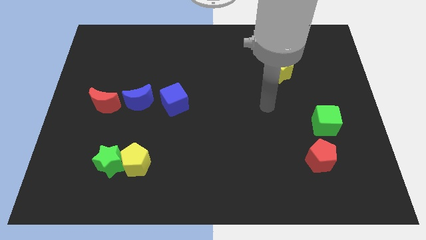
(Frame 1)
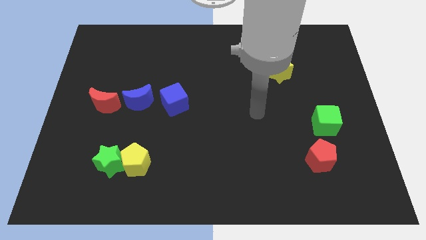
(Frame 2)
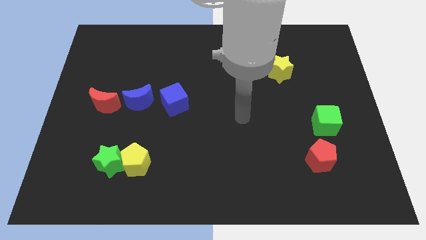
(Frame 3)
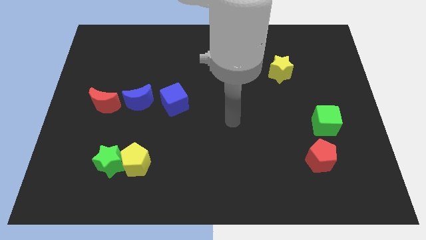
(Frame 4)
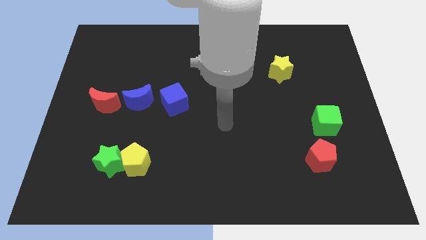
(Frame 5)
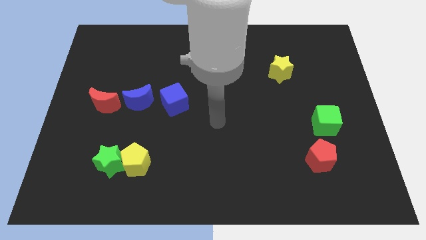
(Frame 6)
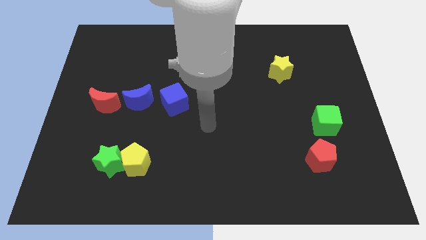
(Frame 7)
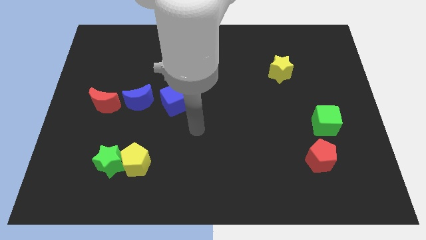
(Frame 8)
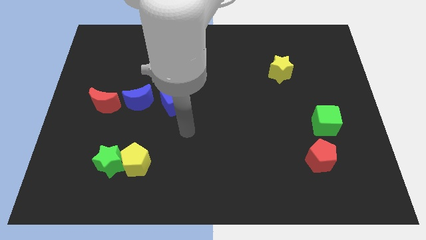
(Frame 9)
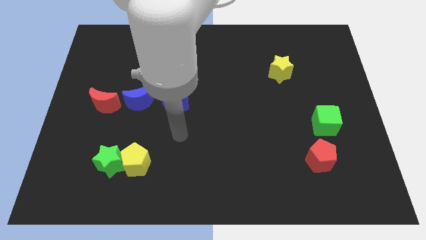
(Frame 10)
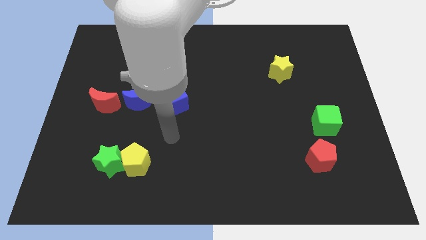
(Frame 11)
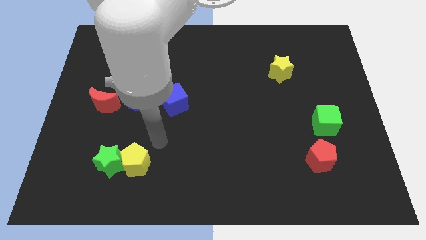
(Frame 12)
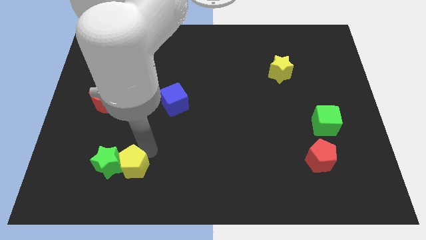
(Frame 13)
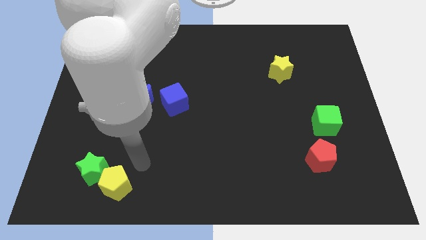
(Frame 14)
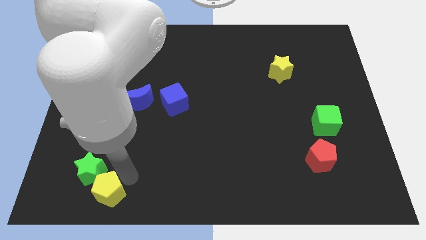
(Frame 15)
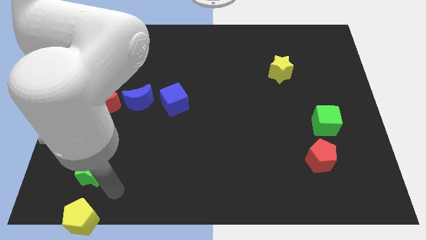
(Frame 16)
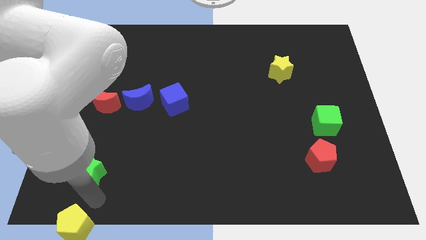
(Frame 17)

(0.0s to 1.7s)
move the green star away from the yellow pentagon

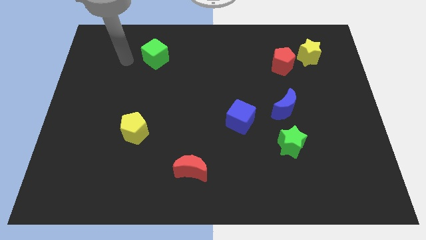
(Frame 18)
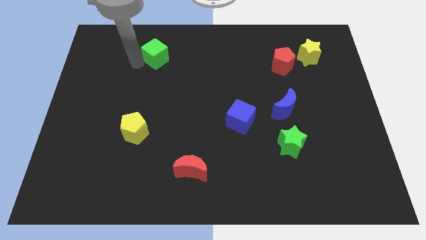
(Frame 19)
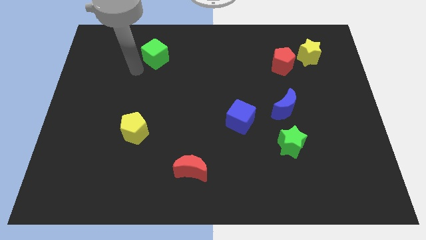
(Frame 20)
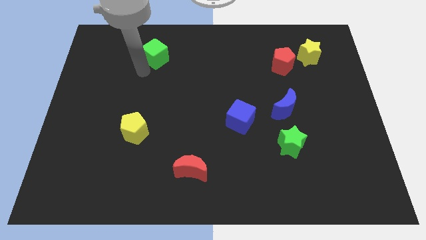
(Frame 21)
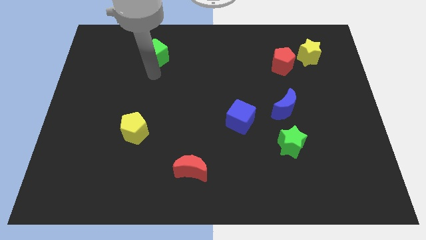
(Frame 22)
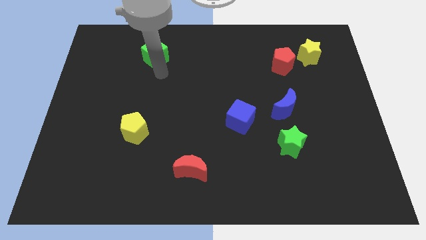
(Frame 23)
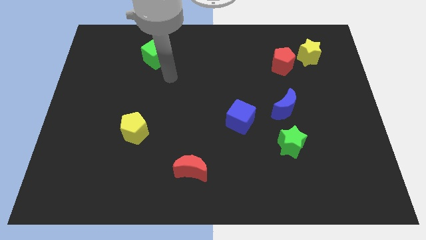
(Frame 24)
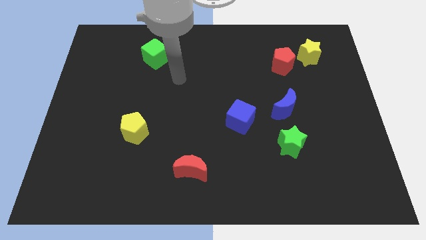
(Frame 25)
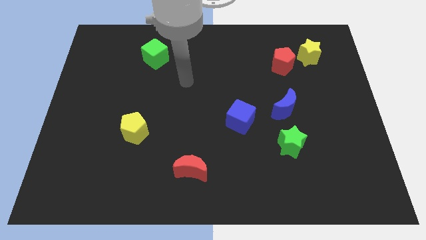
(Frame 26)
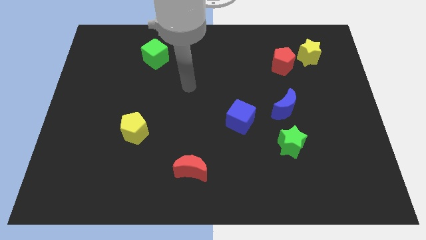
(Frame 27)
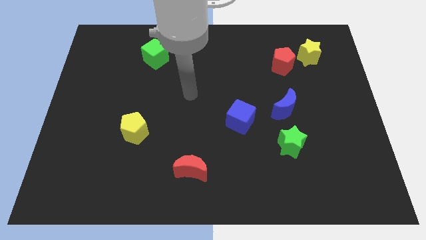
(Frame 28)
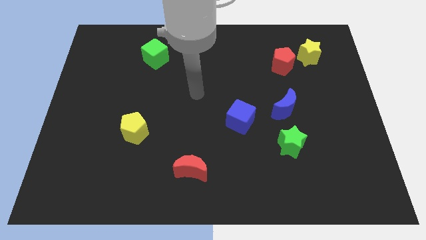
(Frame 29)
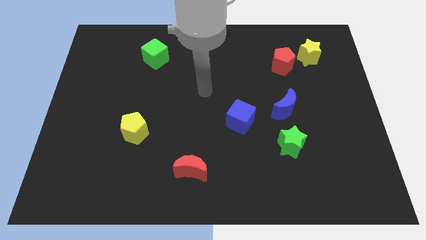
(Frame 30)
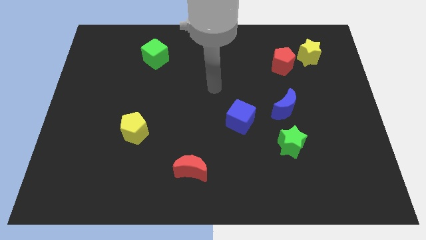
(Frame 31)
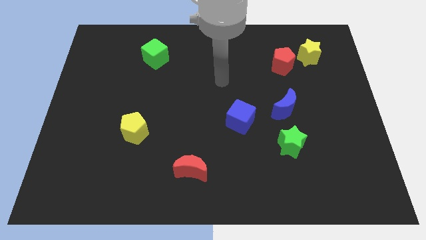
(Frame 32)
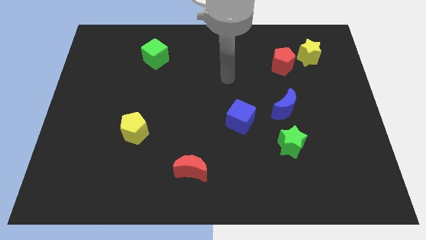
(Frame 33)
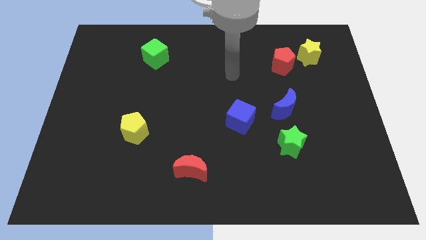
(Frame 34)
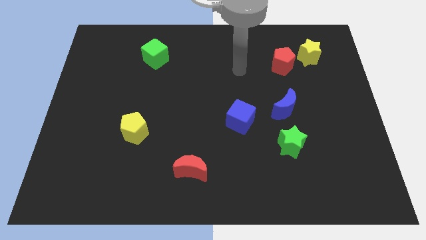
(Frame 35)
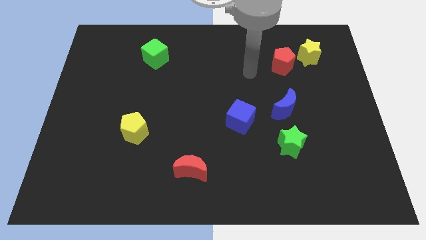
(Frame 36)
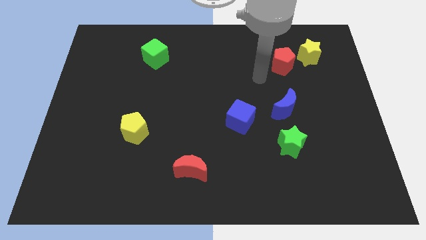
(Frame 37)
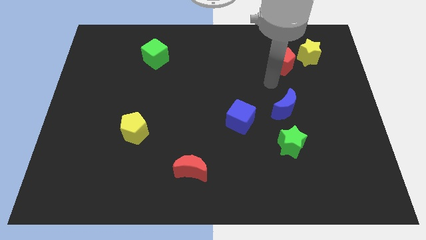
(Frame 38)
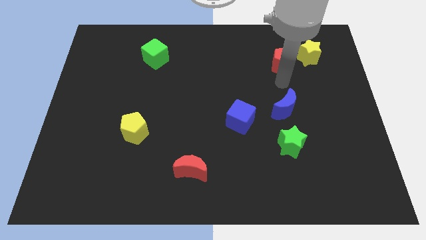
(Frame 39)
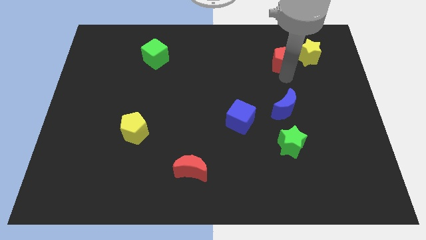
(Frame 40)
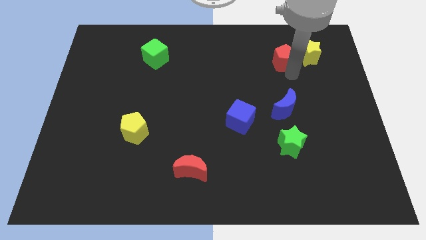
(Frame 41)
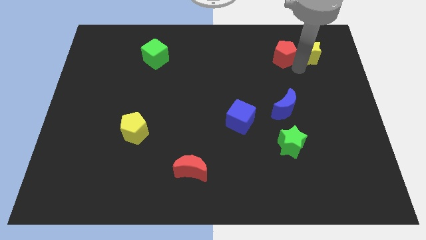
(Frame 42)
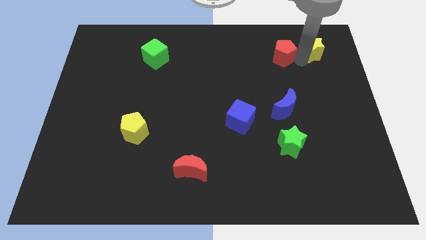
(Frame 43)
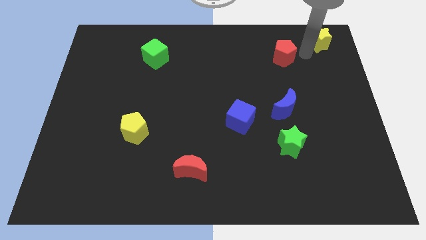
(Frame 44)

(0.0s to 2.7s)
separate the red pentagon from the yellow star

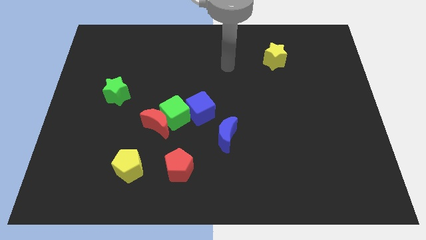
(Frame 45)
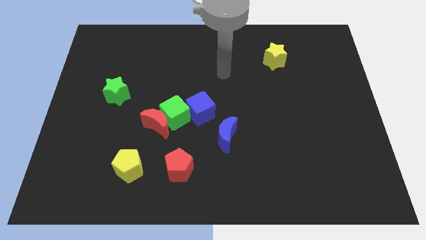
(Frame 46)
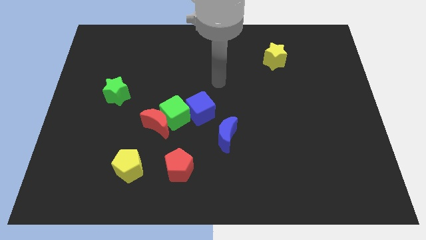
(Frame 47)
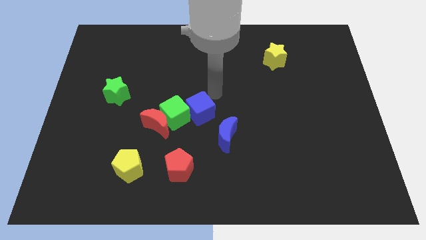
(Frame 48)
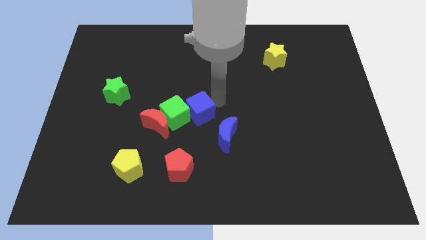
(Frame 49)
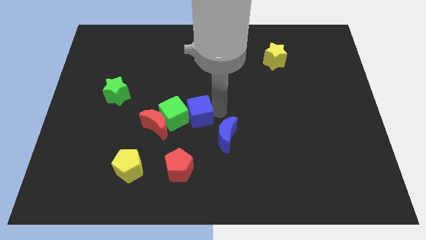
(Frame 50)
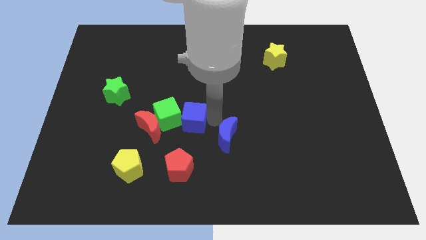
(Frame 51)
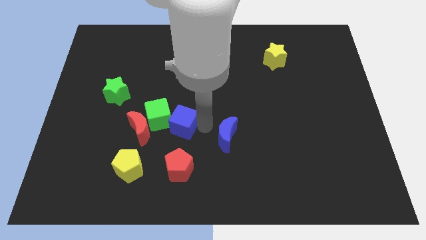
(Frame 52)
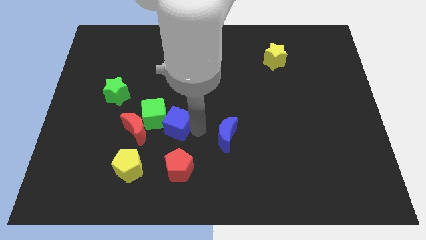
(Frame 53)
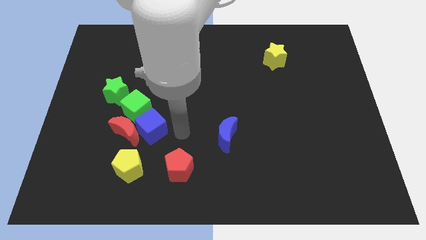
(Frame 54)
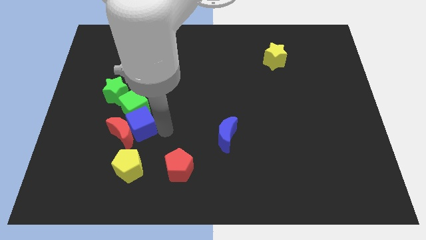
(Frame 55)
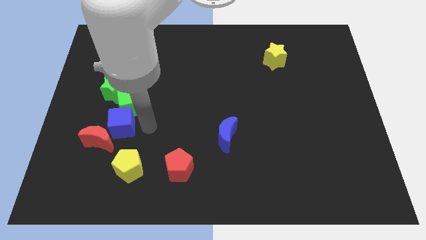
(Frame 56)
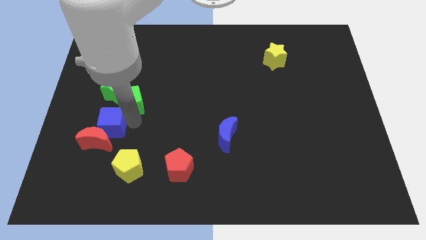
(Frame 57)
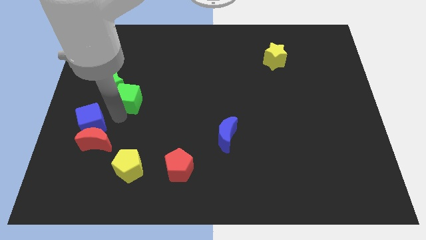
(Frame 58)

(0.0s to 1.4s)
move the green cube away from the red moon and blue cube

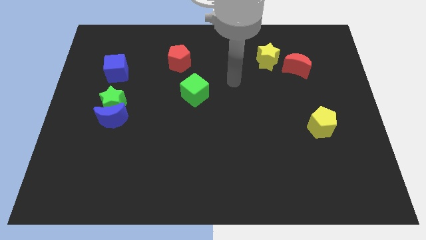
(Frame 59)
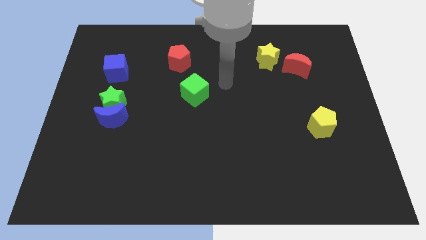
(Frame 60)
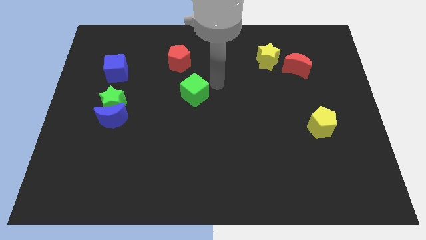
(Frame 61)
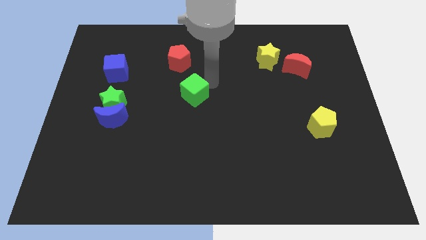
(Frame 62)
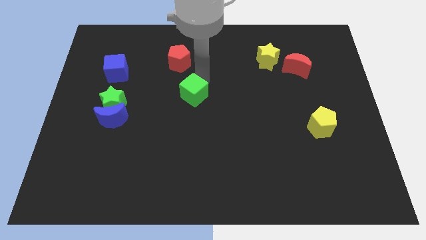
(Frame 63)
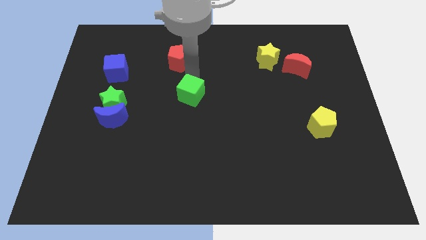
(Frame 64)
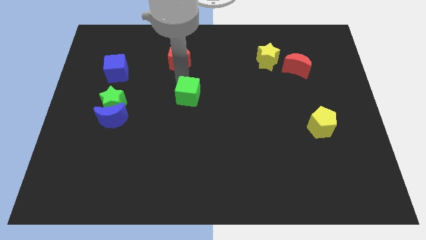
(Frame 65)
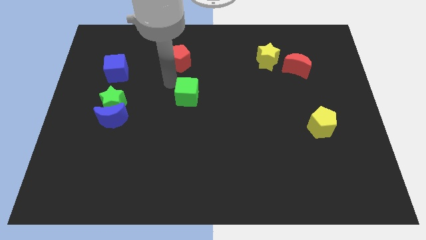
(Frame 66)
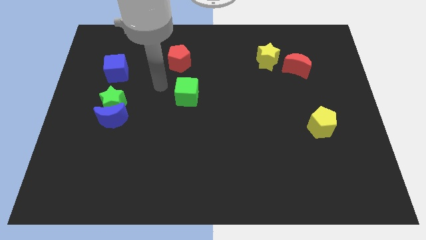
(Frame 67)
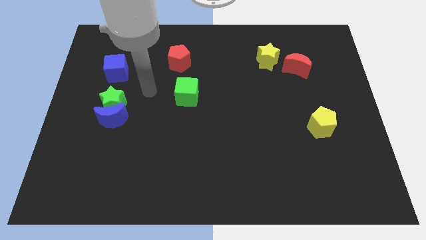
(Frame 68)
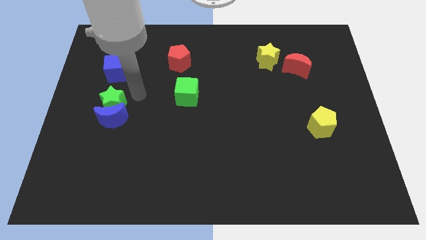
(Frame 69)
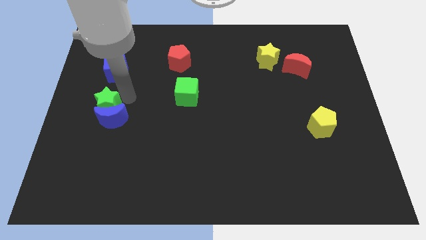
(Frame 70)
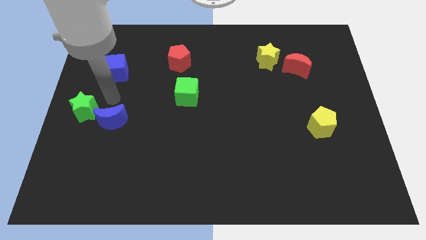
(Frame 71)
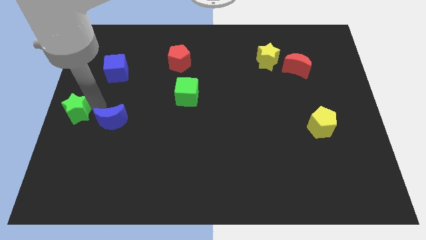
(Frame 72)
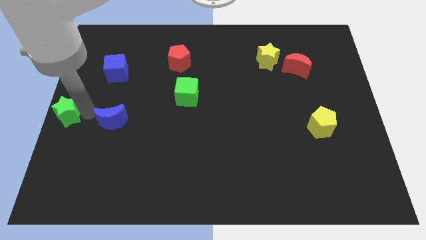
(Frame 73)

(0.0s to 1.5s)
move the blue moon away from the green star

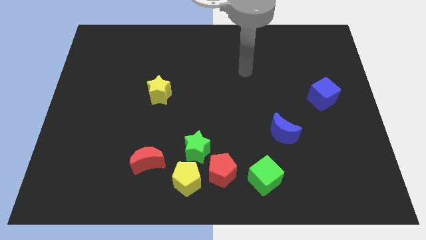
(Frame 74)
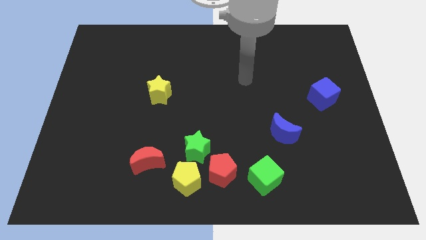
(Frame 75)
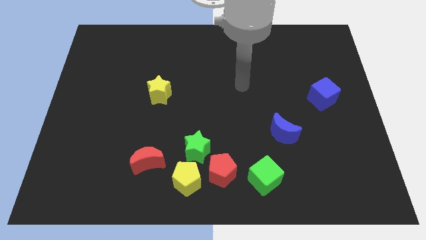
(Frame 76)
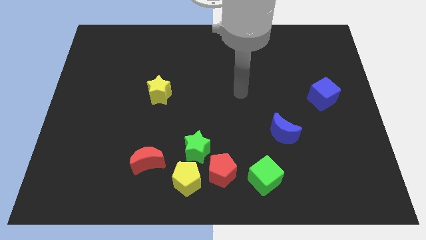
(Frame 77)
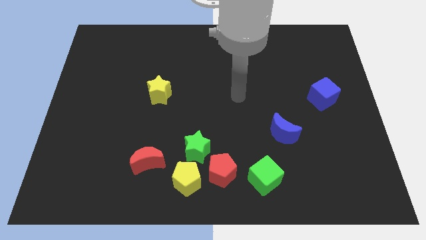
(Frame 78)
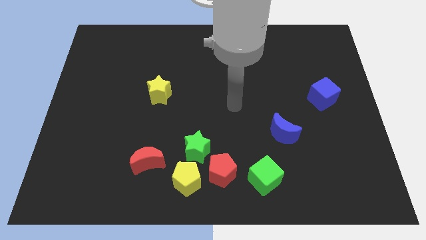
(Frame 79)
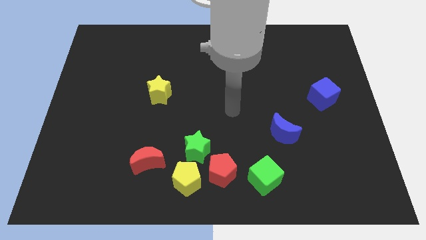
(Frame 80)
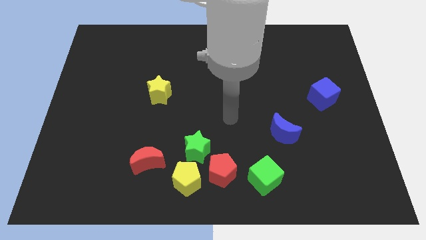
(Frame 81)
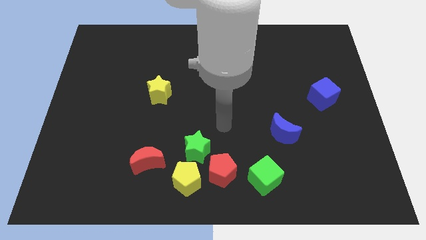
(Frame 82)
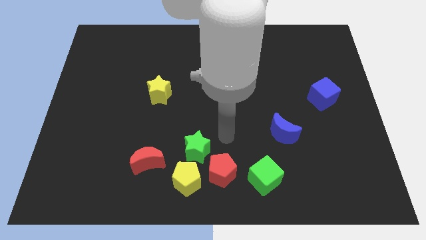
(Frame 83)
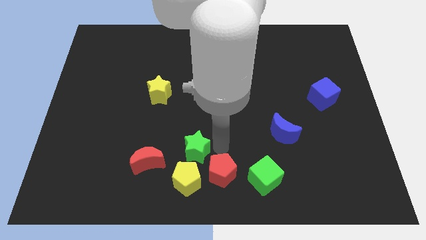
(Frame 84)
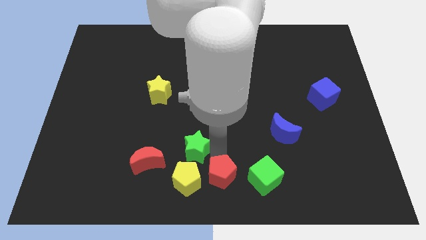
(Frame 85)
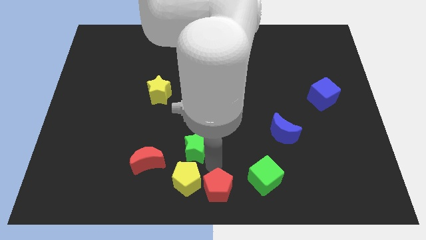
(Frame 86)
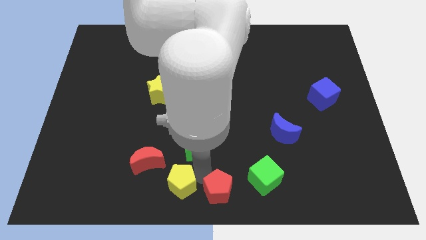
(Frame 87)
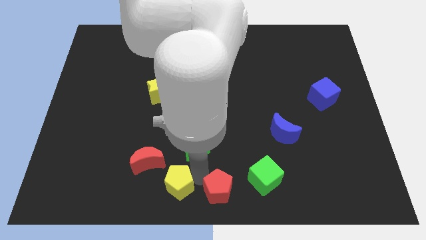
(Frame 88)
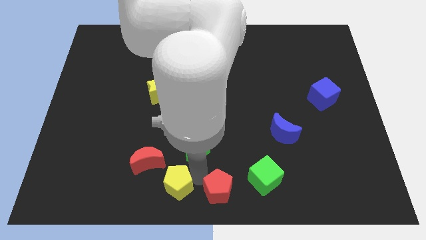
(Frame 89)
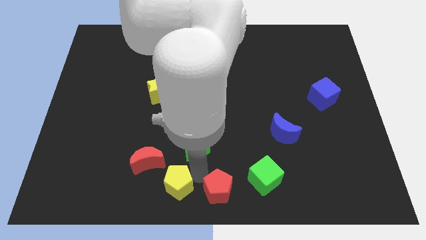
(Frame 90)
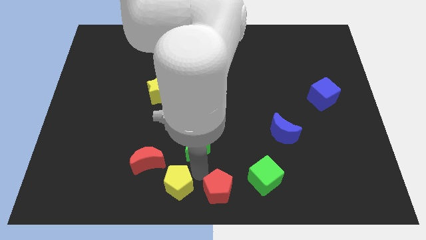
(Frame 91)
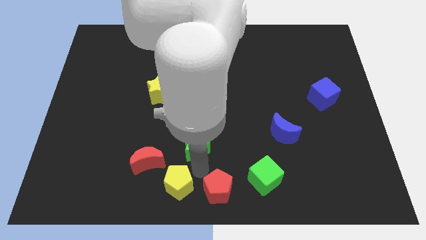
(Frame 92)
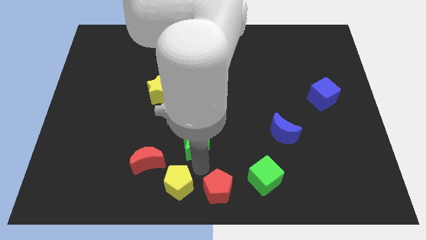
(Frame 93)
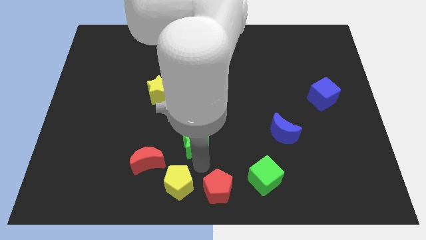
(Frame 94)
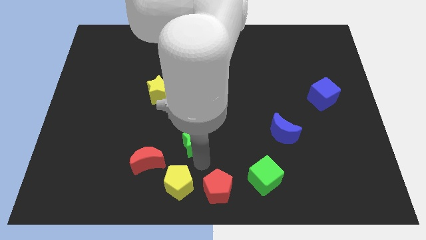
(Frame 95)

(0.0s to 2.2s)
move the green star away from the yellow pentagon and red pentagon
